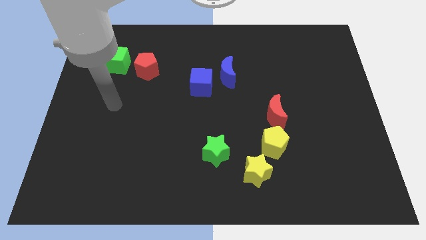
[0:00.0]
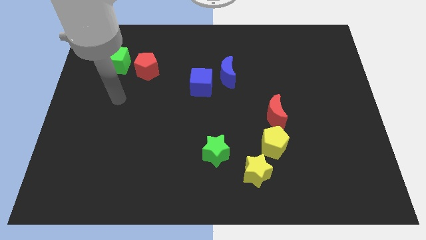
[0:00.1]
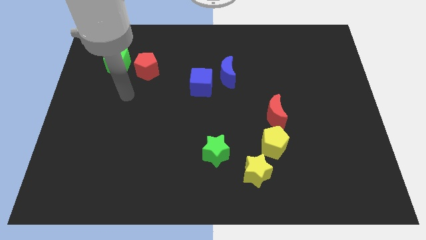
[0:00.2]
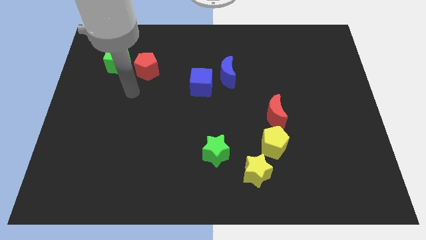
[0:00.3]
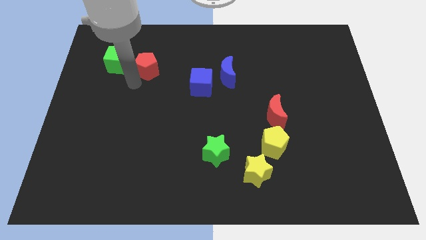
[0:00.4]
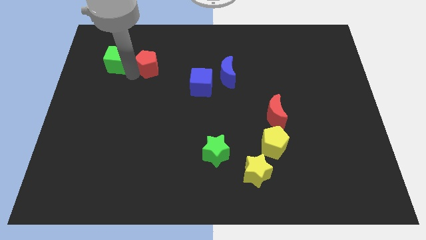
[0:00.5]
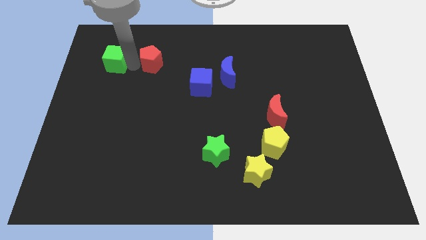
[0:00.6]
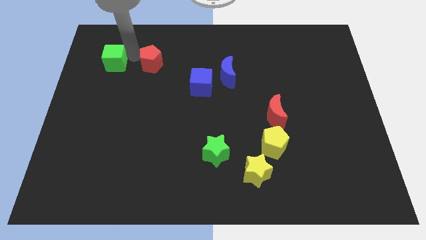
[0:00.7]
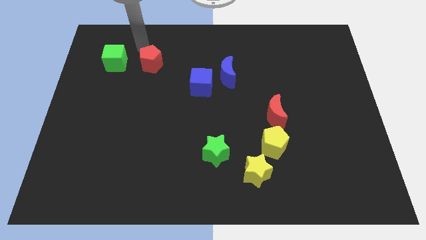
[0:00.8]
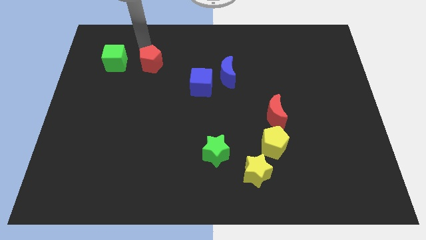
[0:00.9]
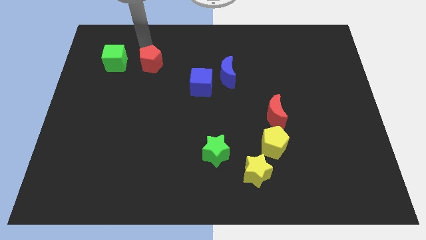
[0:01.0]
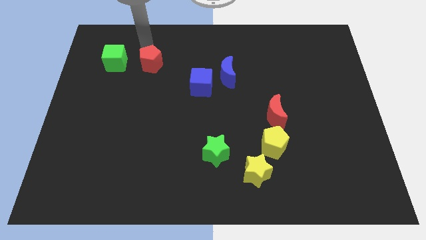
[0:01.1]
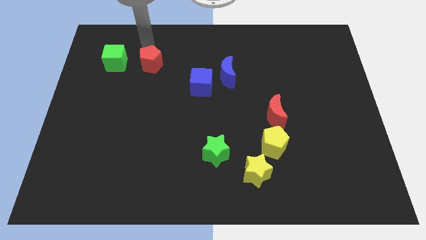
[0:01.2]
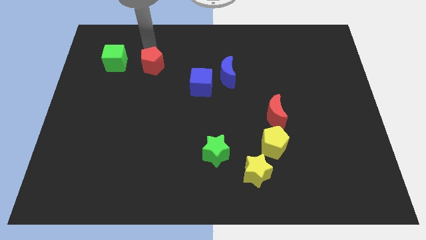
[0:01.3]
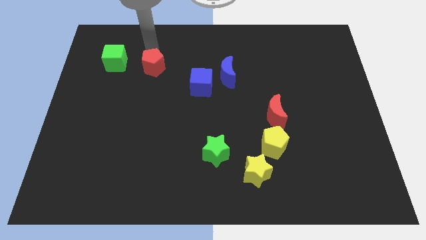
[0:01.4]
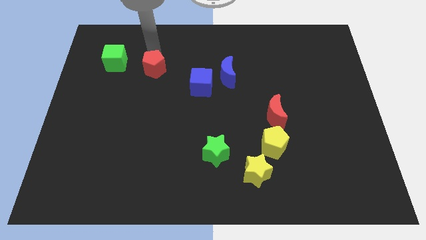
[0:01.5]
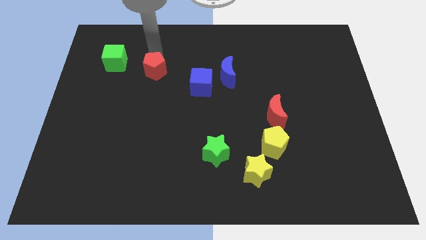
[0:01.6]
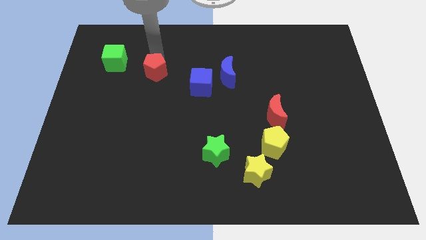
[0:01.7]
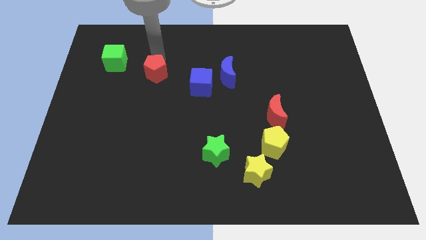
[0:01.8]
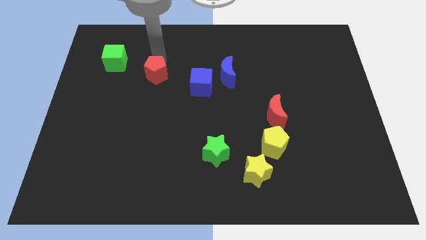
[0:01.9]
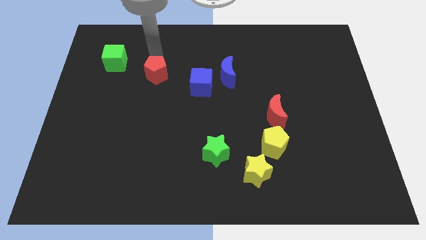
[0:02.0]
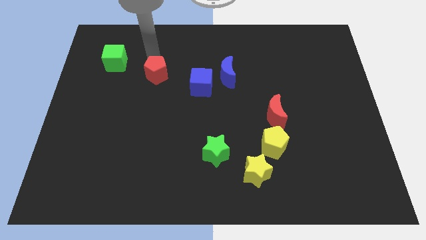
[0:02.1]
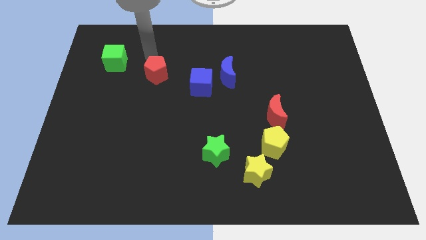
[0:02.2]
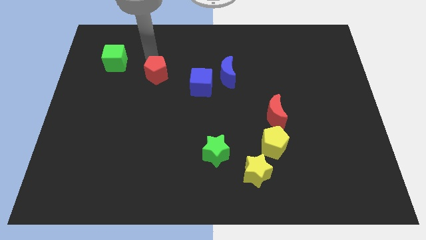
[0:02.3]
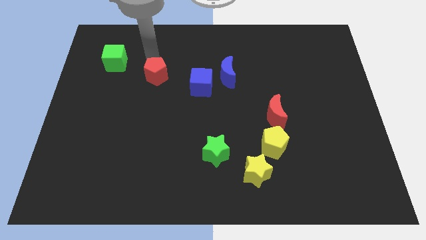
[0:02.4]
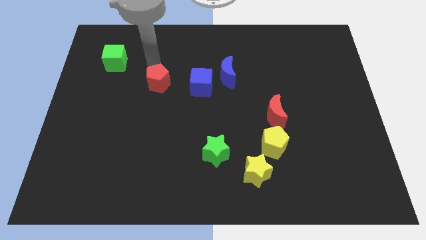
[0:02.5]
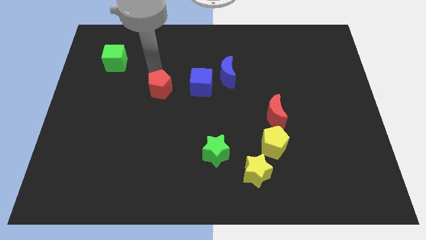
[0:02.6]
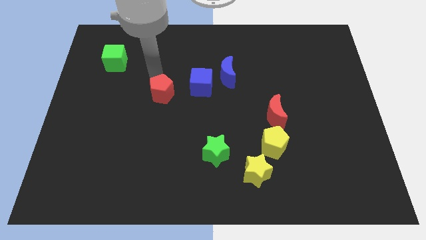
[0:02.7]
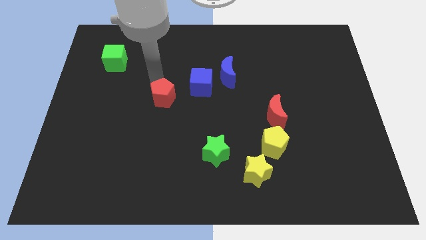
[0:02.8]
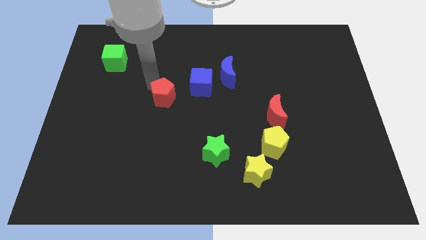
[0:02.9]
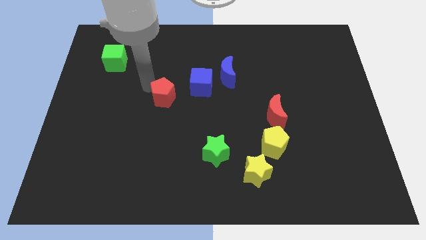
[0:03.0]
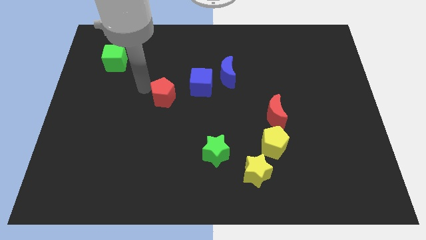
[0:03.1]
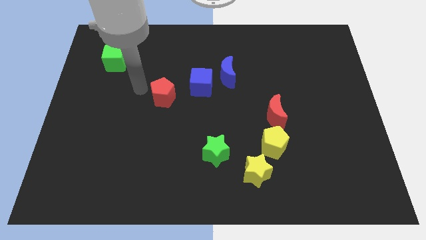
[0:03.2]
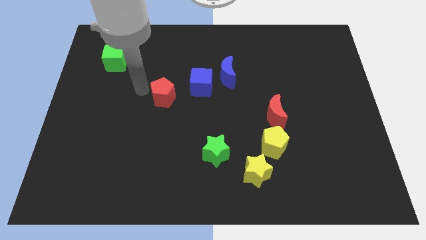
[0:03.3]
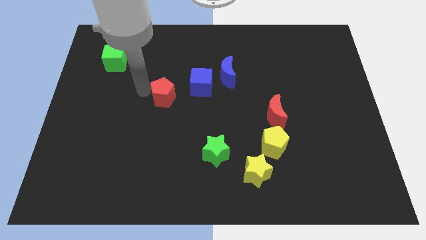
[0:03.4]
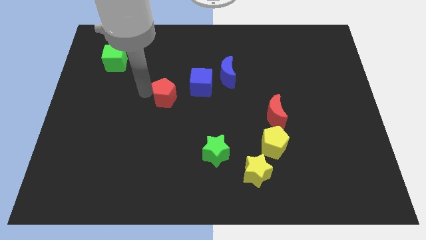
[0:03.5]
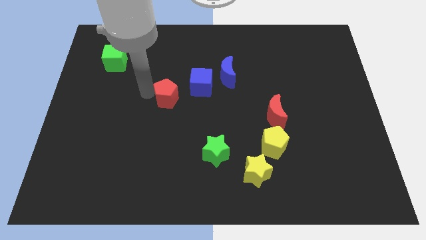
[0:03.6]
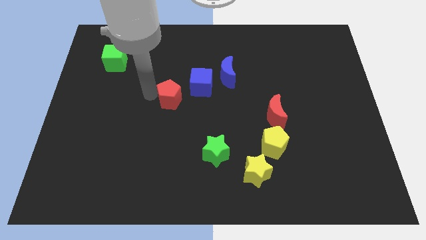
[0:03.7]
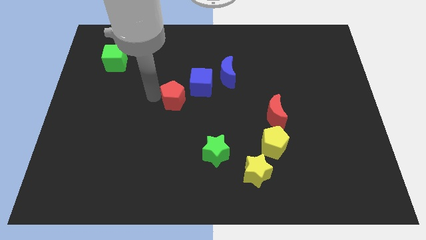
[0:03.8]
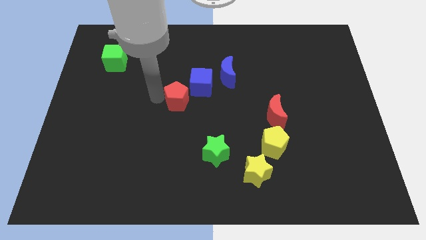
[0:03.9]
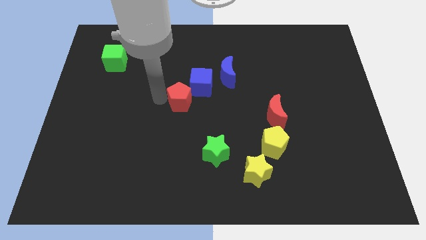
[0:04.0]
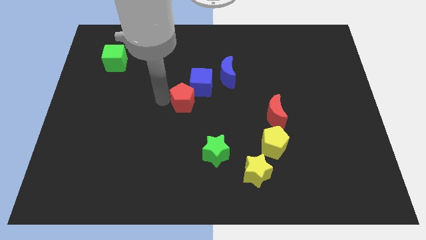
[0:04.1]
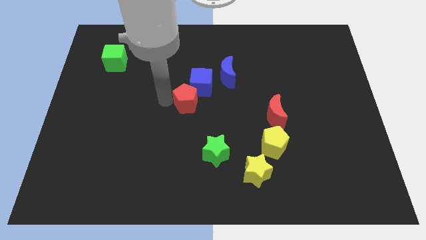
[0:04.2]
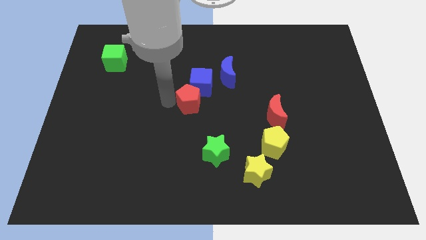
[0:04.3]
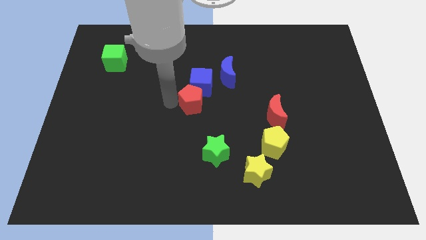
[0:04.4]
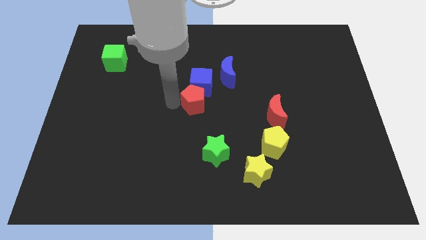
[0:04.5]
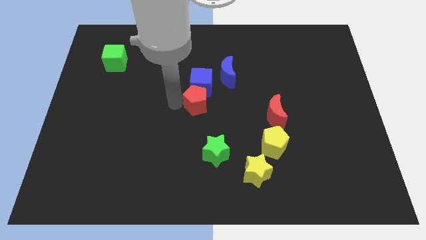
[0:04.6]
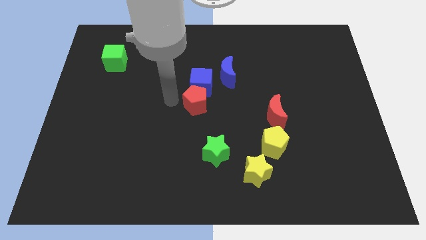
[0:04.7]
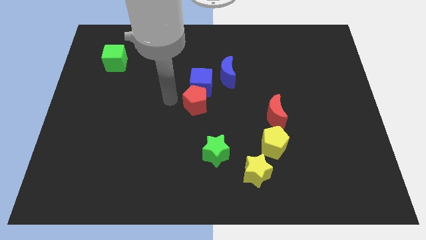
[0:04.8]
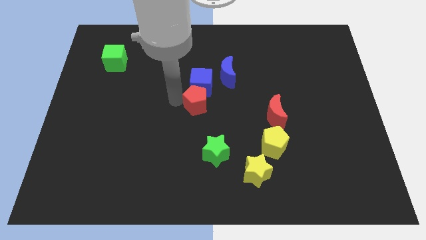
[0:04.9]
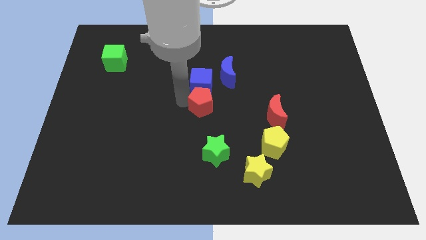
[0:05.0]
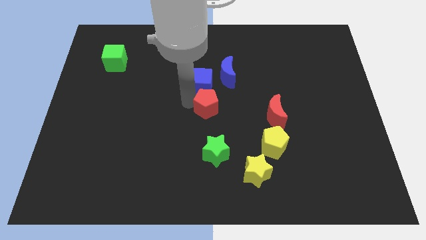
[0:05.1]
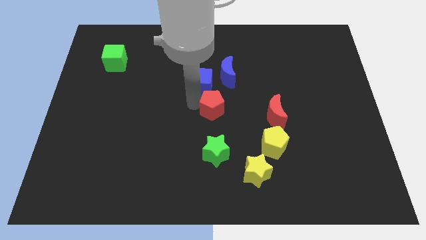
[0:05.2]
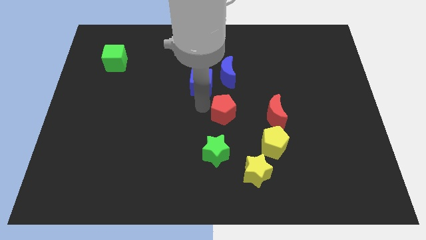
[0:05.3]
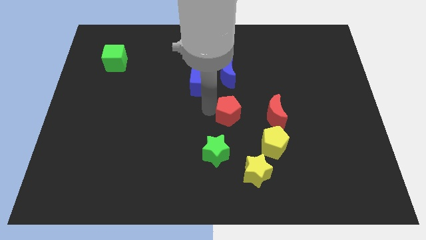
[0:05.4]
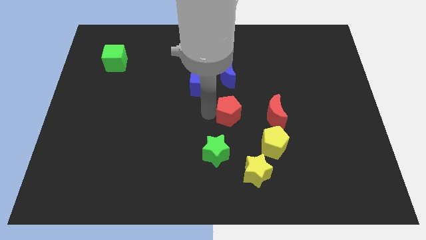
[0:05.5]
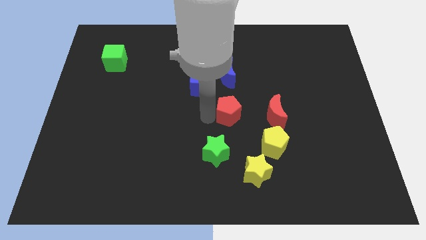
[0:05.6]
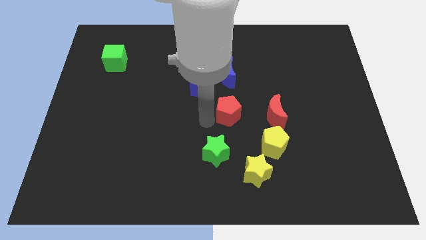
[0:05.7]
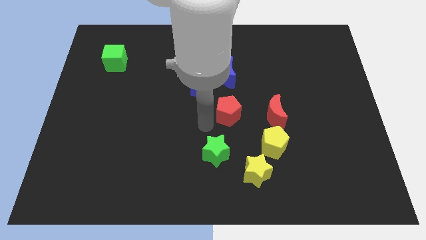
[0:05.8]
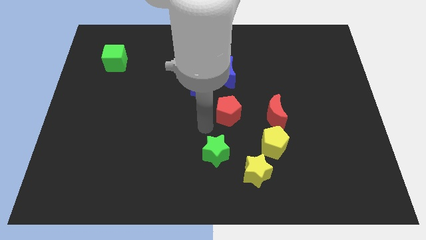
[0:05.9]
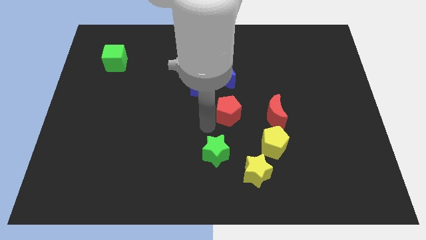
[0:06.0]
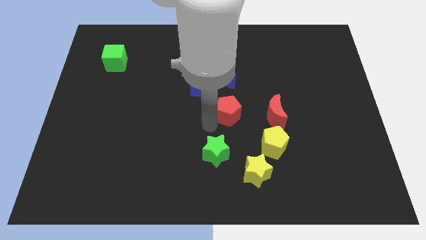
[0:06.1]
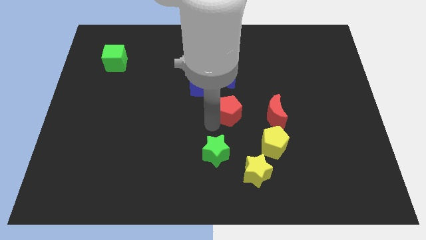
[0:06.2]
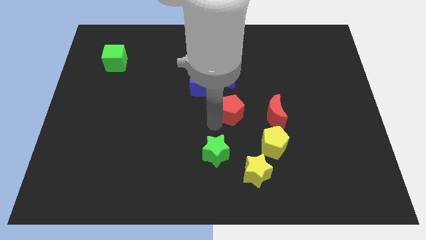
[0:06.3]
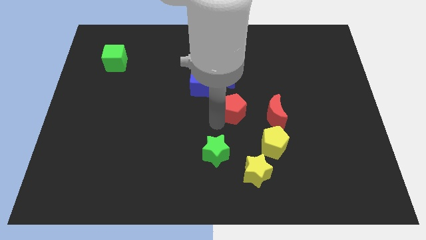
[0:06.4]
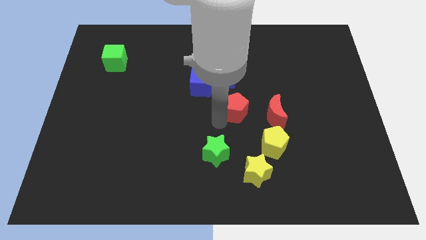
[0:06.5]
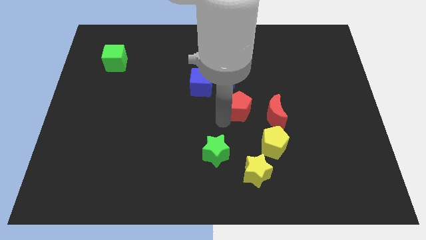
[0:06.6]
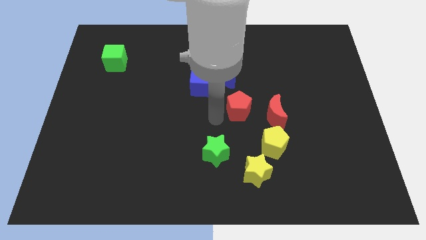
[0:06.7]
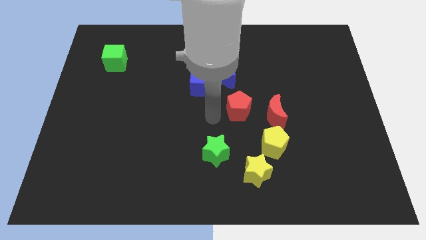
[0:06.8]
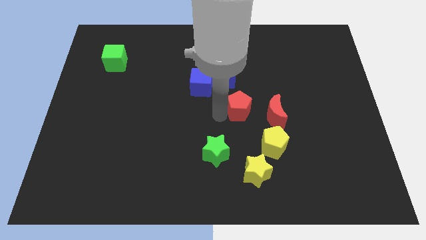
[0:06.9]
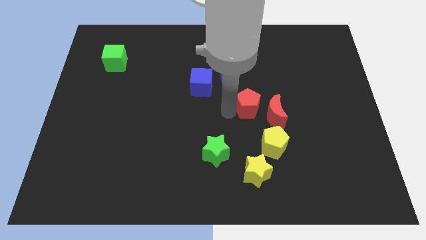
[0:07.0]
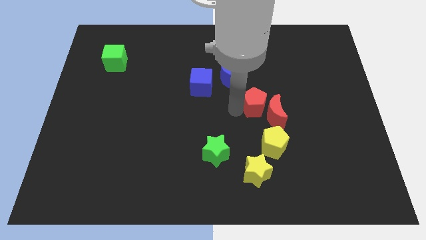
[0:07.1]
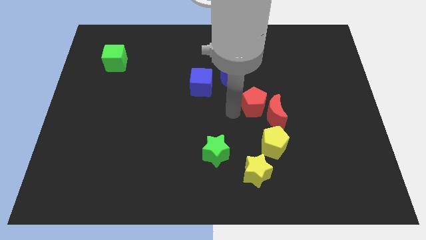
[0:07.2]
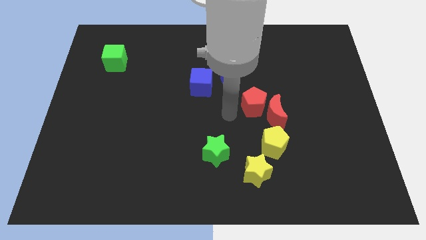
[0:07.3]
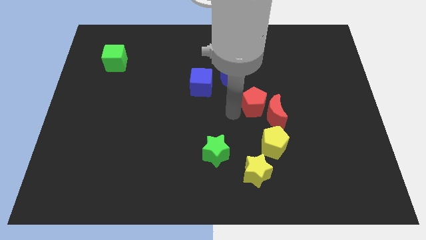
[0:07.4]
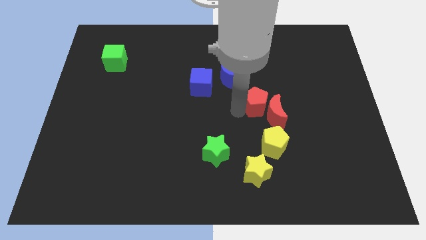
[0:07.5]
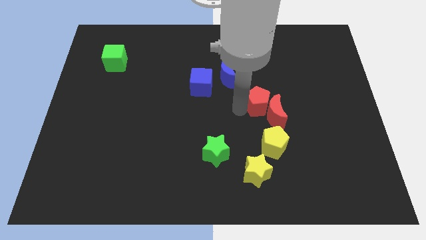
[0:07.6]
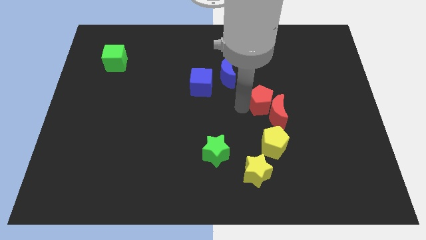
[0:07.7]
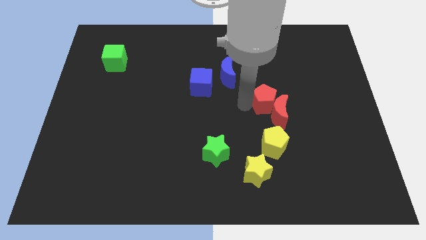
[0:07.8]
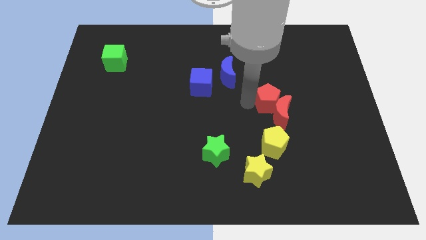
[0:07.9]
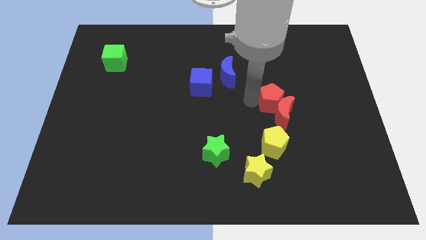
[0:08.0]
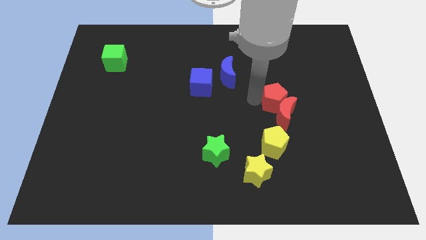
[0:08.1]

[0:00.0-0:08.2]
slide the red pentagon diagonally up and to the right of the red moon
